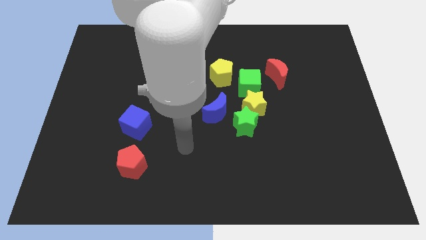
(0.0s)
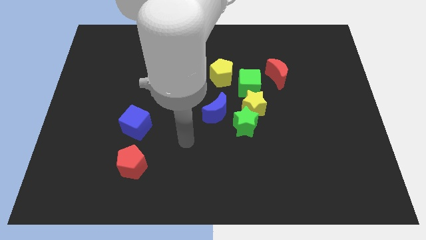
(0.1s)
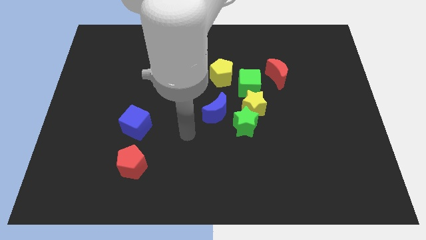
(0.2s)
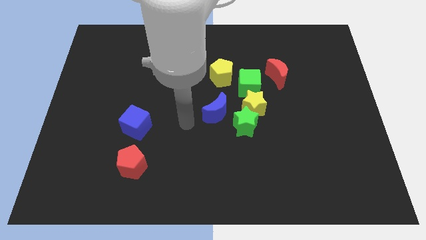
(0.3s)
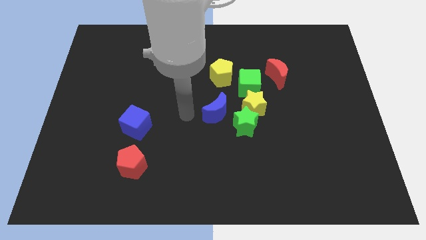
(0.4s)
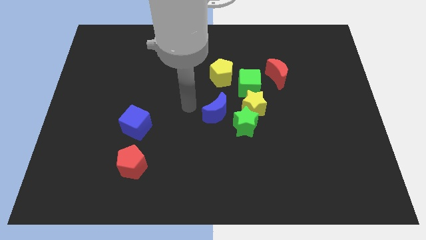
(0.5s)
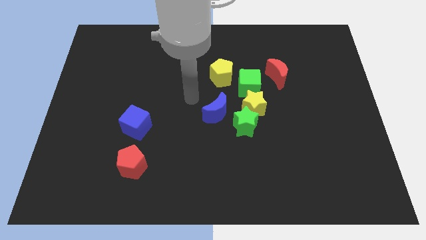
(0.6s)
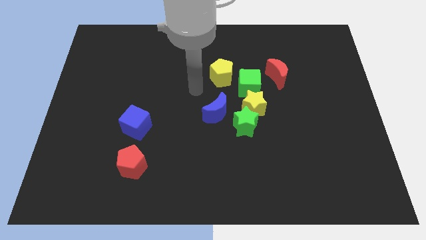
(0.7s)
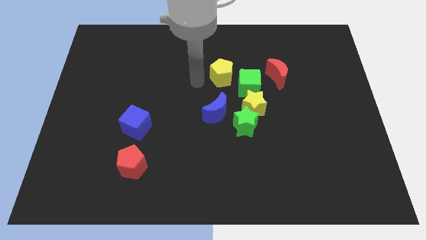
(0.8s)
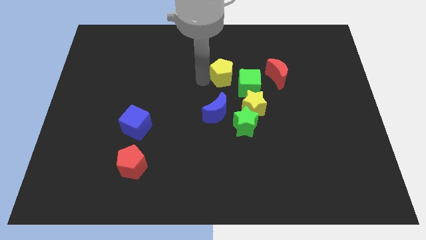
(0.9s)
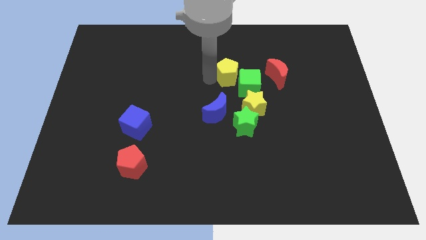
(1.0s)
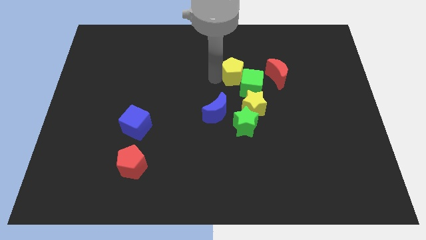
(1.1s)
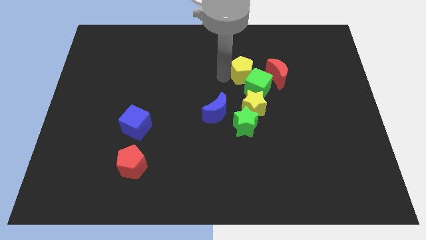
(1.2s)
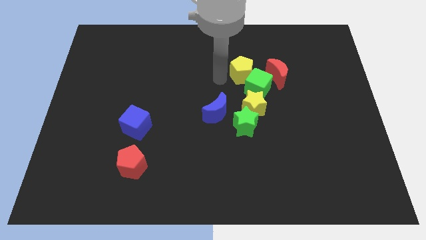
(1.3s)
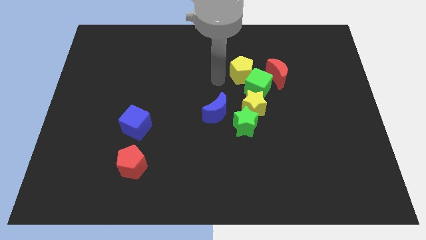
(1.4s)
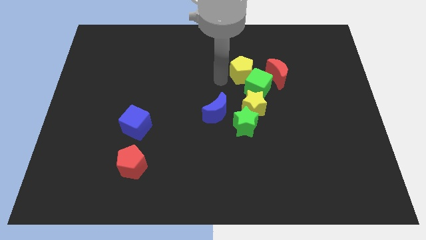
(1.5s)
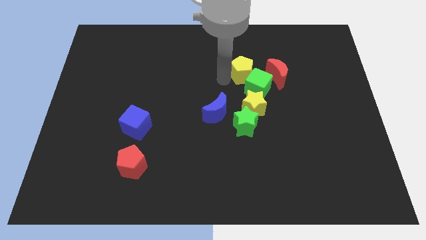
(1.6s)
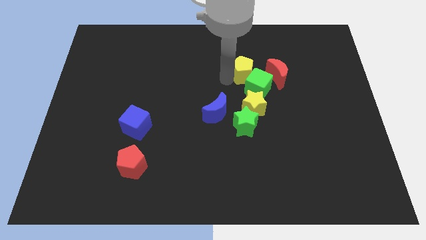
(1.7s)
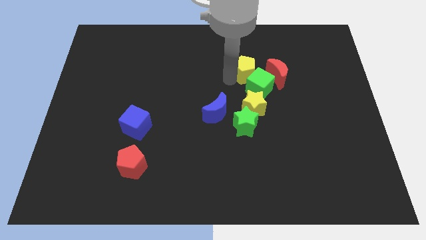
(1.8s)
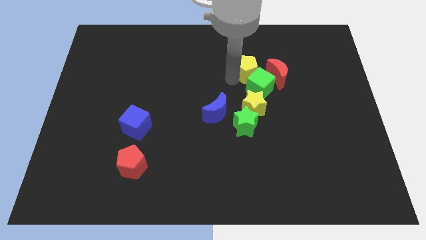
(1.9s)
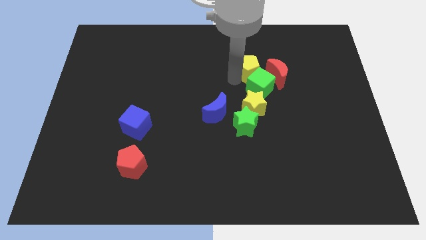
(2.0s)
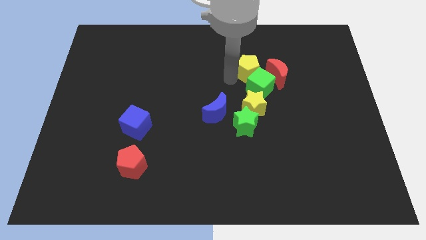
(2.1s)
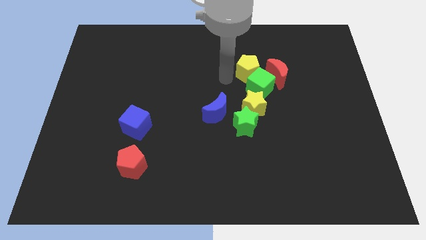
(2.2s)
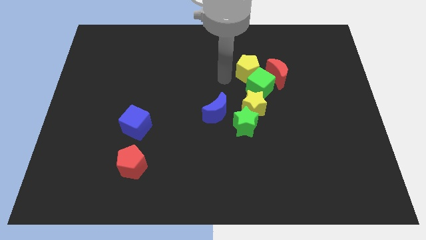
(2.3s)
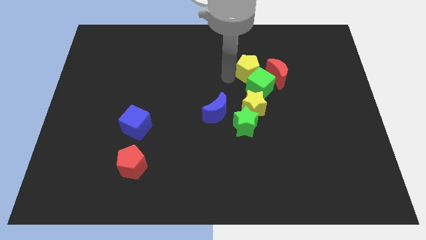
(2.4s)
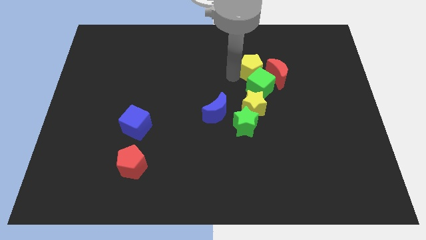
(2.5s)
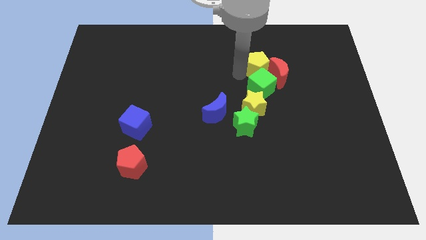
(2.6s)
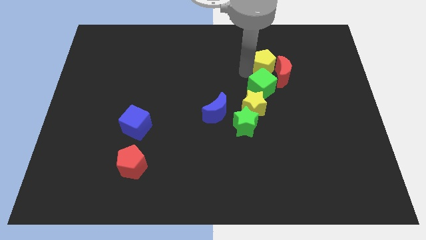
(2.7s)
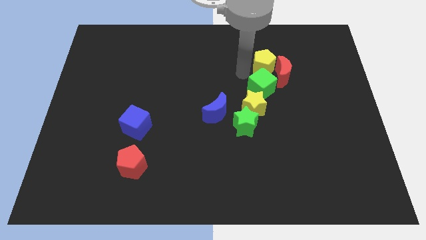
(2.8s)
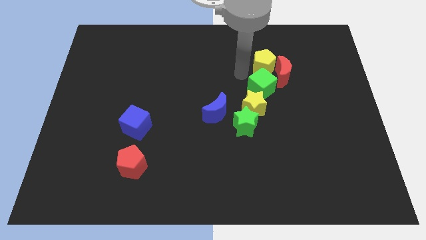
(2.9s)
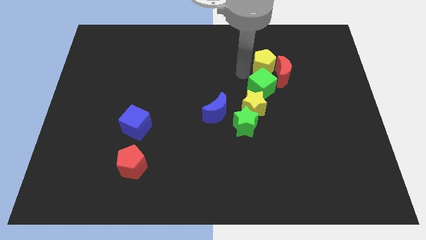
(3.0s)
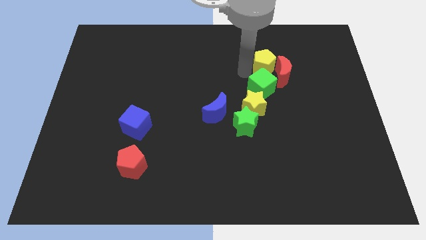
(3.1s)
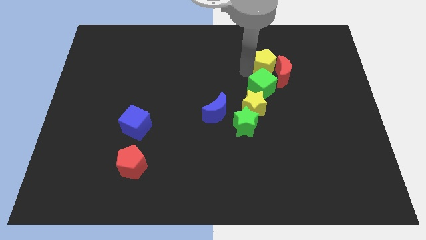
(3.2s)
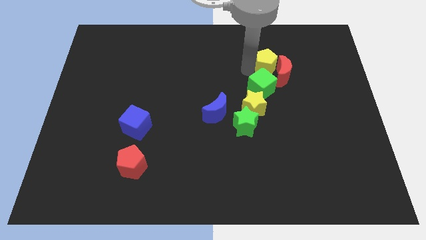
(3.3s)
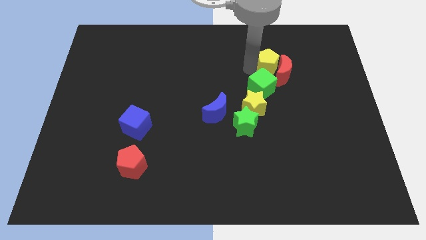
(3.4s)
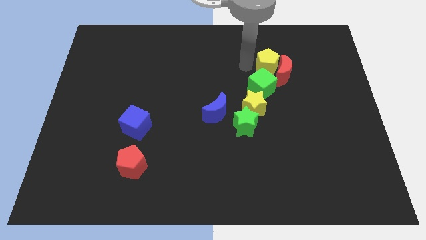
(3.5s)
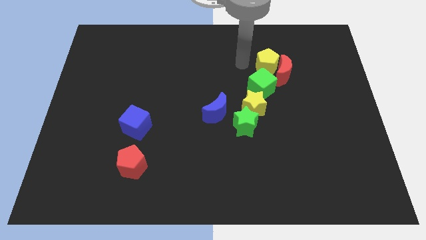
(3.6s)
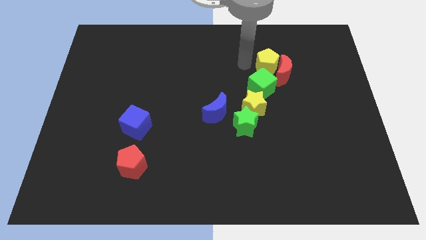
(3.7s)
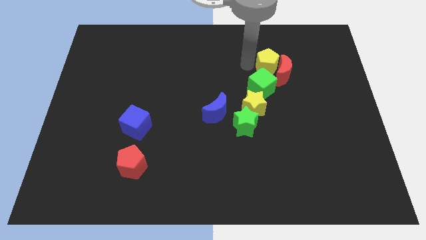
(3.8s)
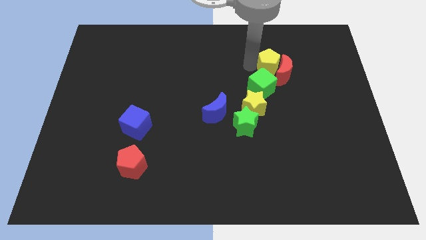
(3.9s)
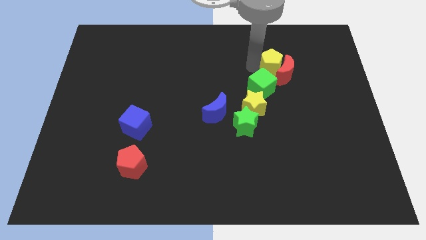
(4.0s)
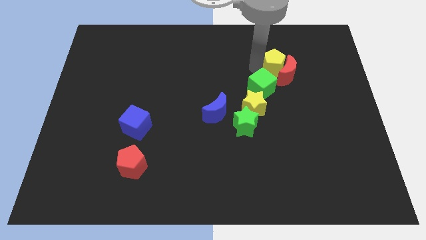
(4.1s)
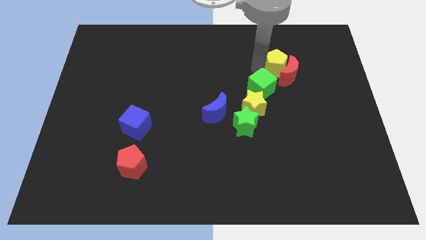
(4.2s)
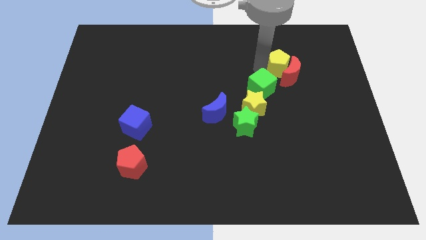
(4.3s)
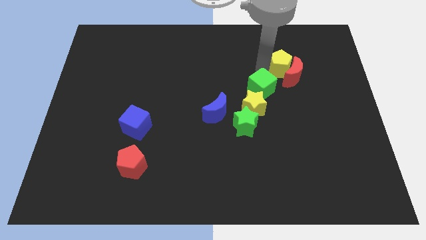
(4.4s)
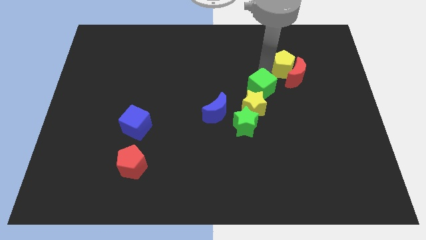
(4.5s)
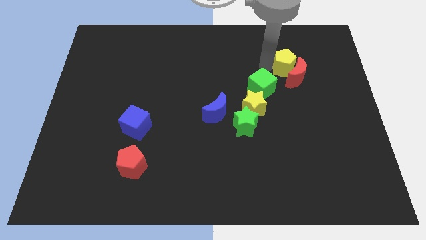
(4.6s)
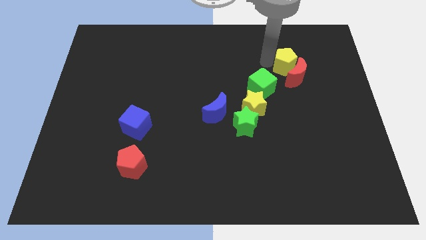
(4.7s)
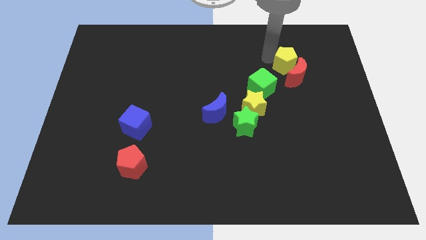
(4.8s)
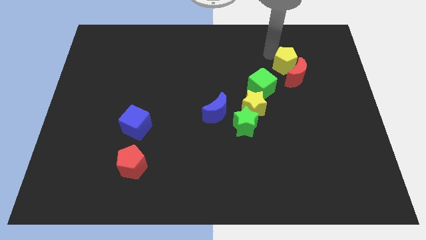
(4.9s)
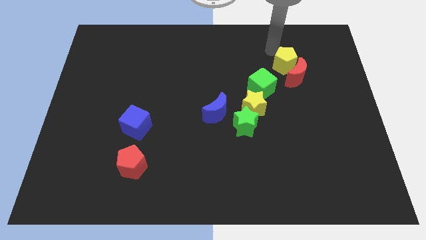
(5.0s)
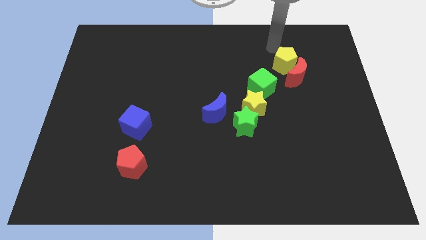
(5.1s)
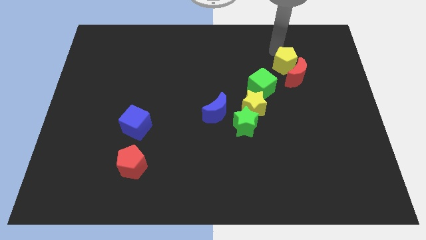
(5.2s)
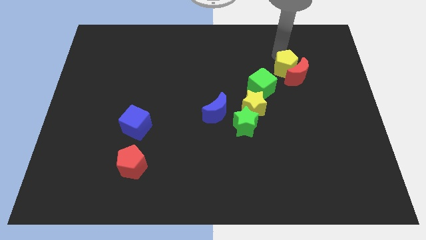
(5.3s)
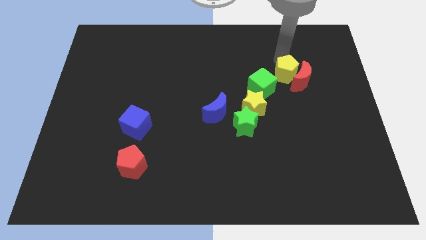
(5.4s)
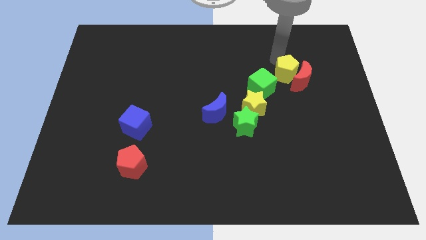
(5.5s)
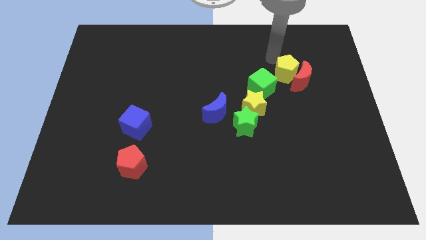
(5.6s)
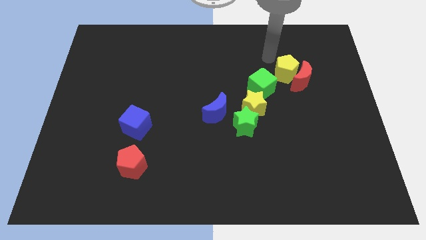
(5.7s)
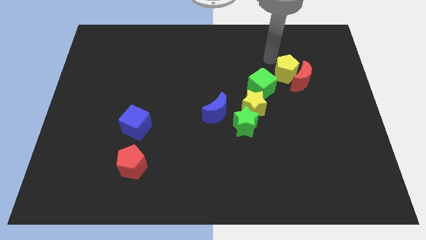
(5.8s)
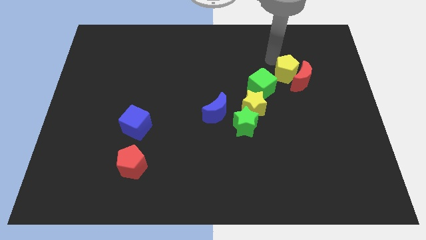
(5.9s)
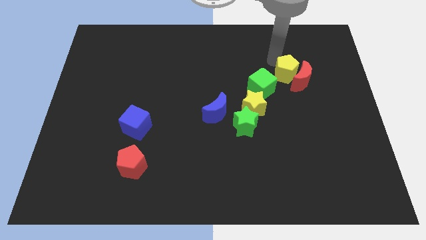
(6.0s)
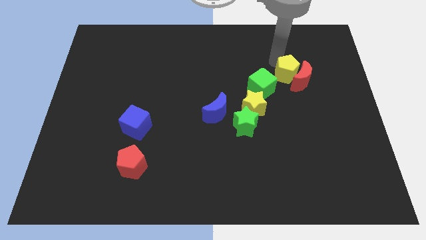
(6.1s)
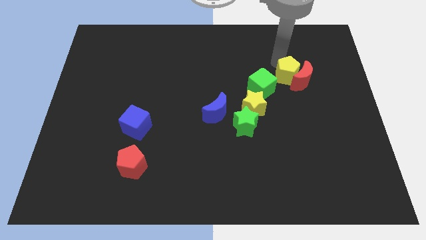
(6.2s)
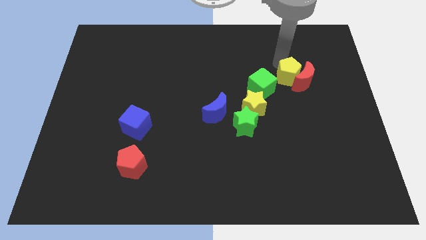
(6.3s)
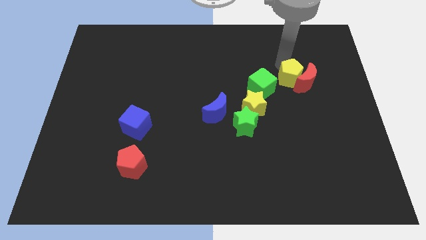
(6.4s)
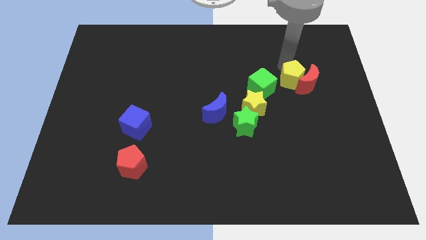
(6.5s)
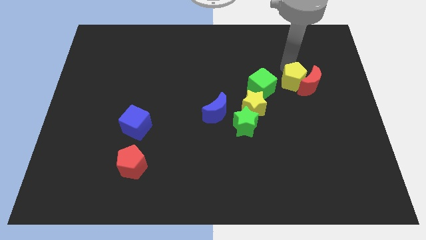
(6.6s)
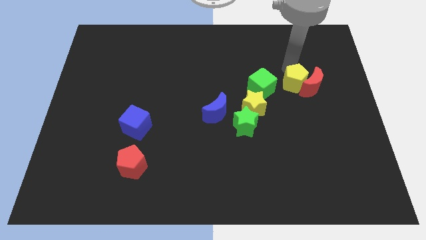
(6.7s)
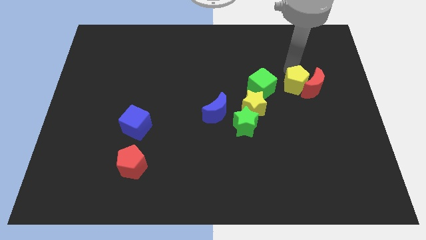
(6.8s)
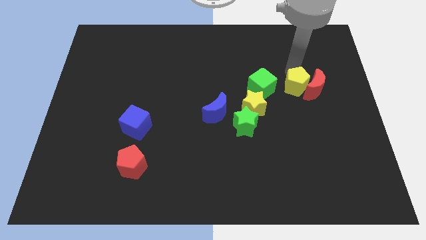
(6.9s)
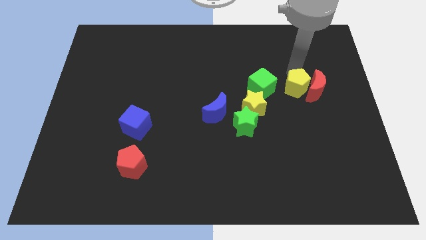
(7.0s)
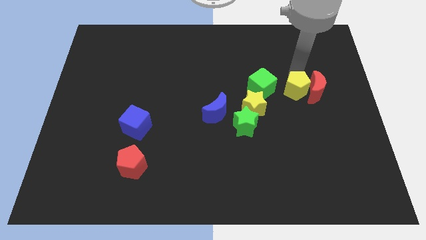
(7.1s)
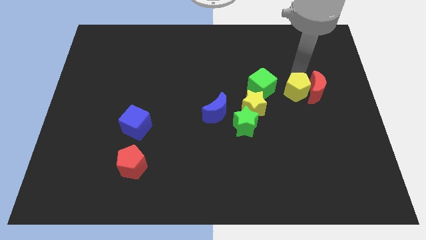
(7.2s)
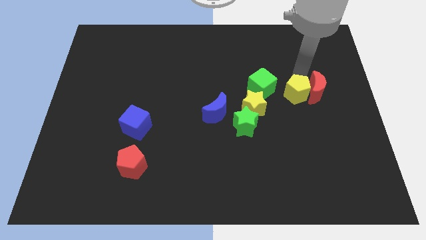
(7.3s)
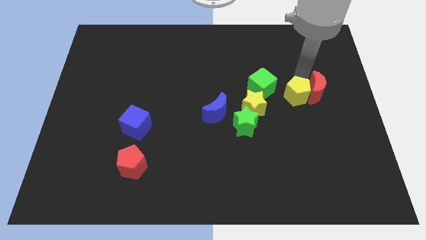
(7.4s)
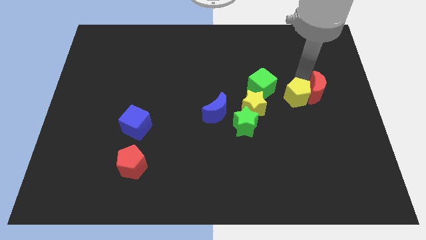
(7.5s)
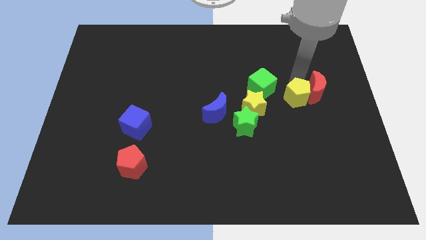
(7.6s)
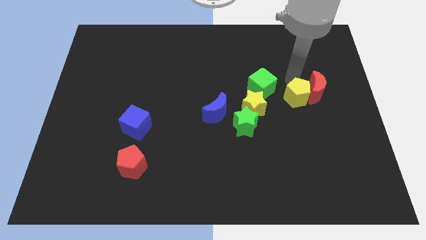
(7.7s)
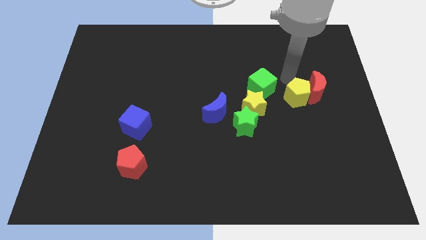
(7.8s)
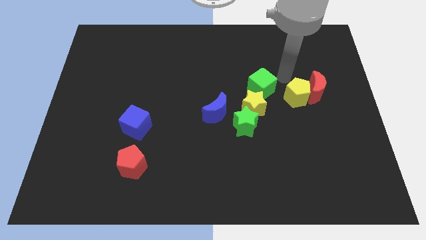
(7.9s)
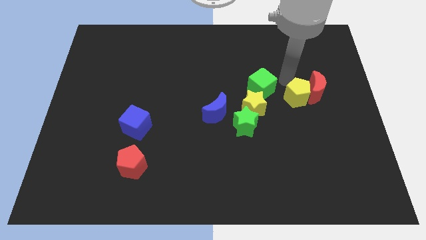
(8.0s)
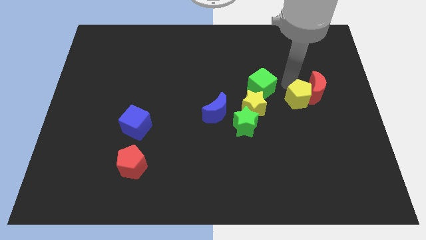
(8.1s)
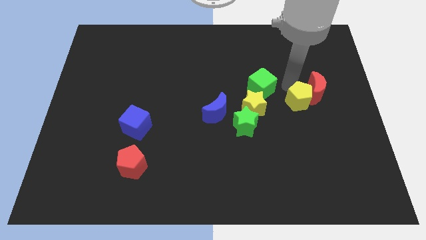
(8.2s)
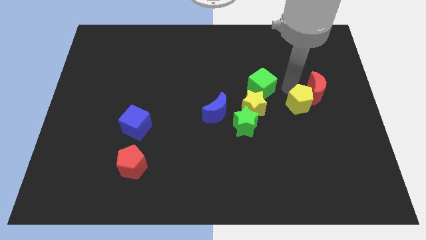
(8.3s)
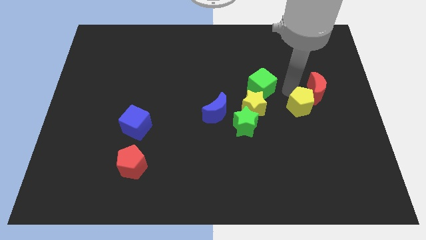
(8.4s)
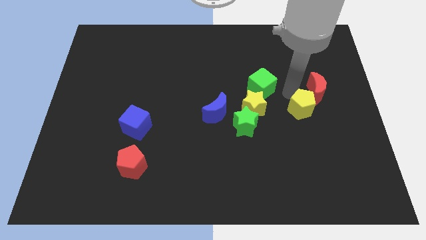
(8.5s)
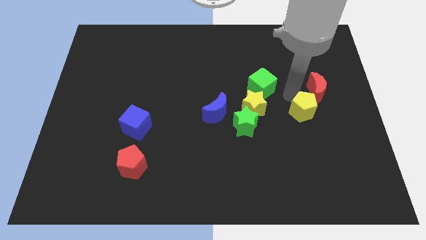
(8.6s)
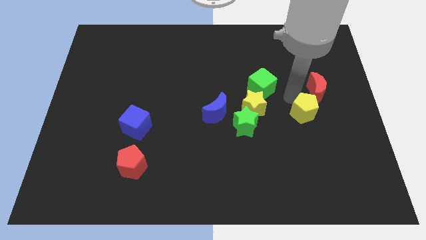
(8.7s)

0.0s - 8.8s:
slide the yellow pentagon downwards and then to the right
